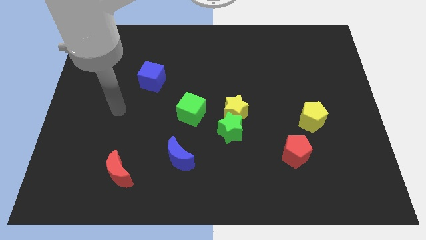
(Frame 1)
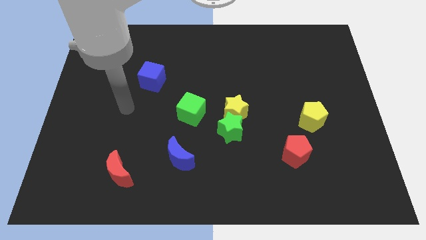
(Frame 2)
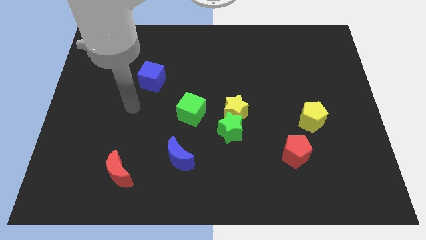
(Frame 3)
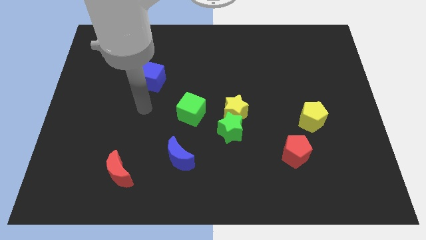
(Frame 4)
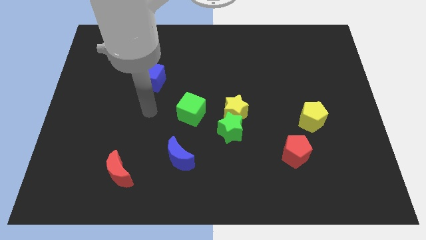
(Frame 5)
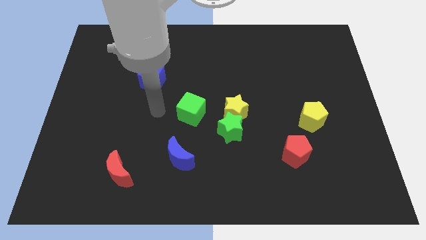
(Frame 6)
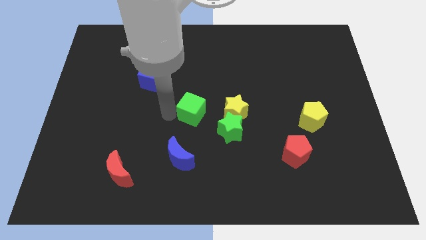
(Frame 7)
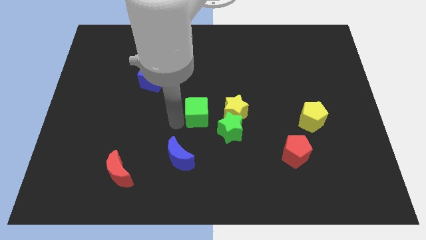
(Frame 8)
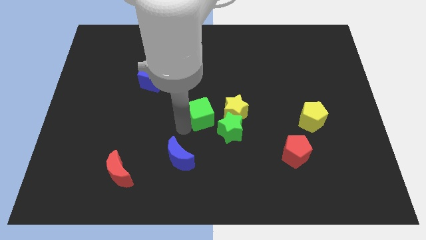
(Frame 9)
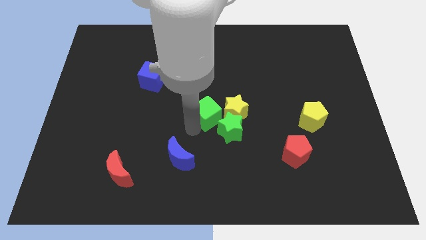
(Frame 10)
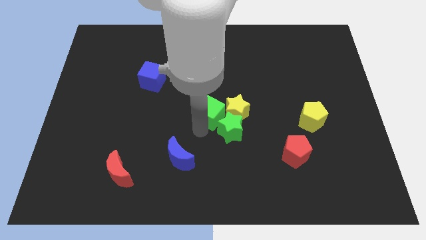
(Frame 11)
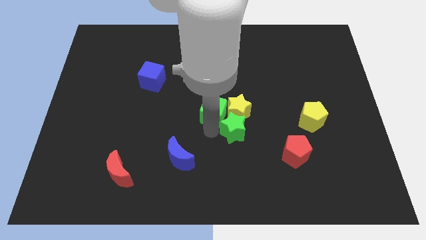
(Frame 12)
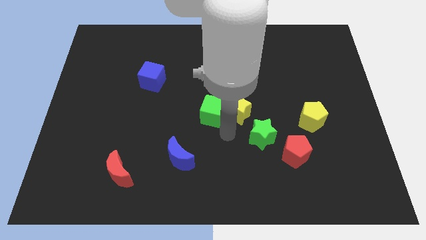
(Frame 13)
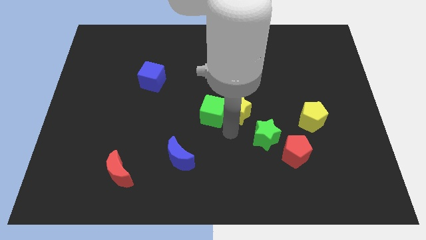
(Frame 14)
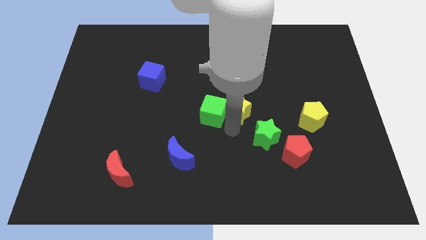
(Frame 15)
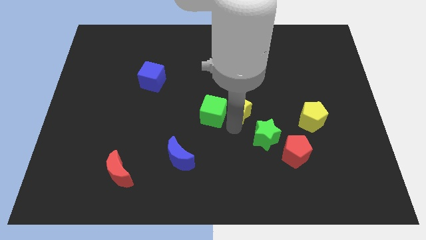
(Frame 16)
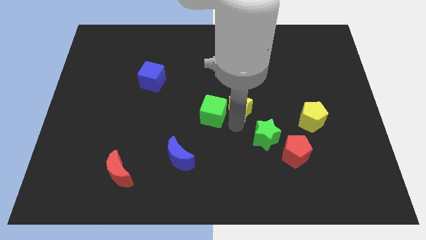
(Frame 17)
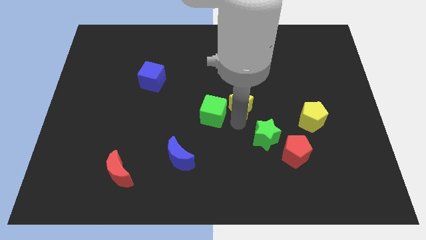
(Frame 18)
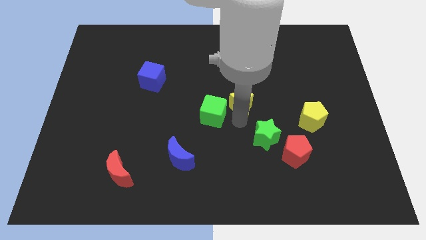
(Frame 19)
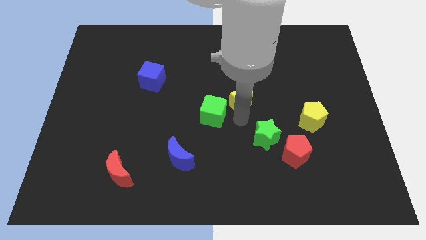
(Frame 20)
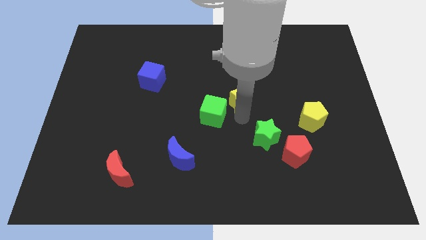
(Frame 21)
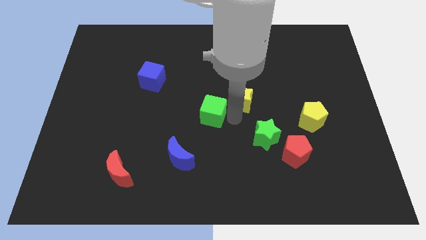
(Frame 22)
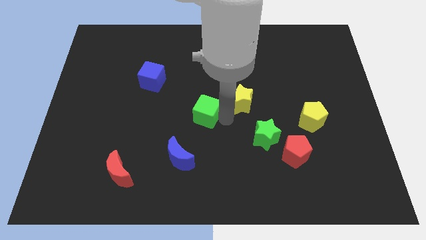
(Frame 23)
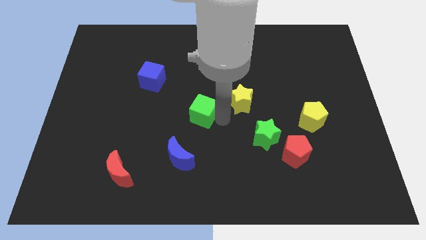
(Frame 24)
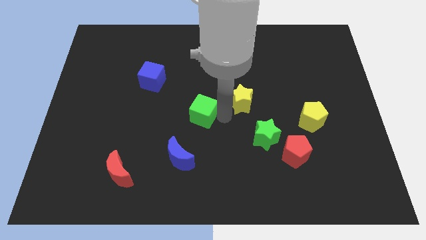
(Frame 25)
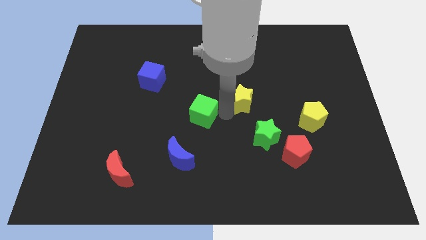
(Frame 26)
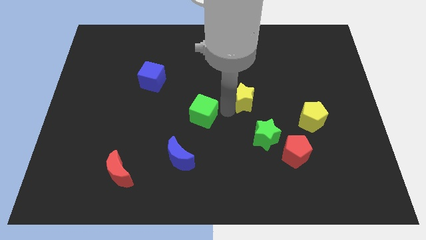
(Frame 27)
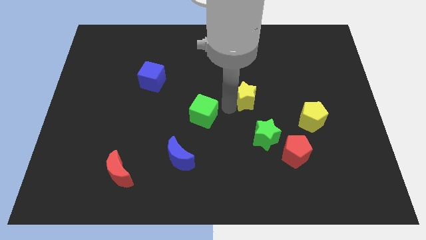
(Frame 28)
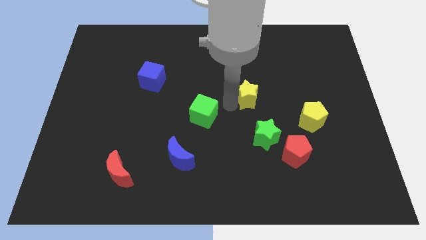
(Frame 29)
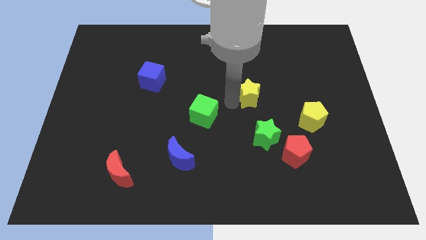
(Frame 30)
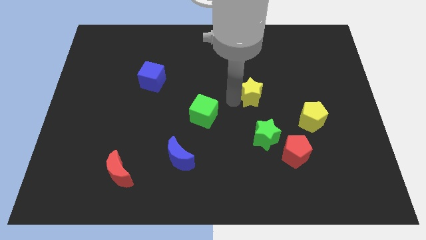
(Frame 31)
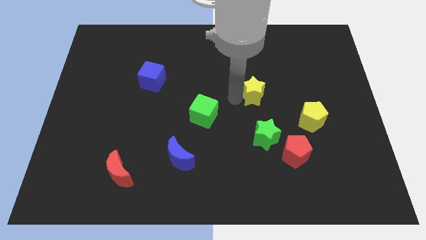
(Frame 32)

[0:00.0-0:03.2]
slide the yellow star a bit upwards and right diagonally

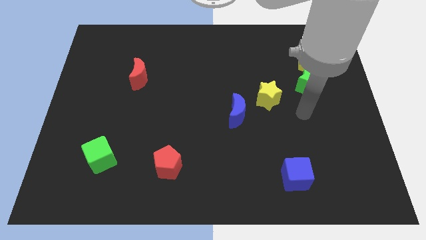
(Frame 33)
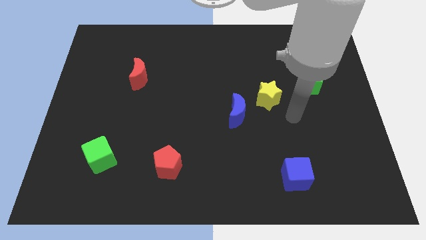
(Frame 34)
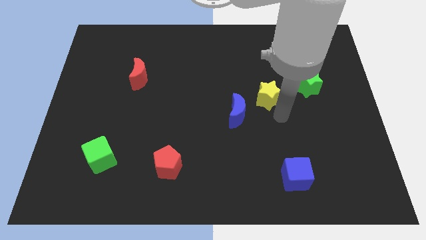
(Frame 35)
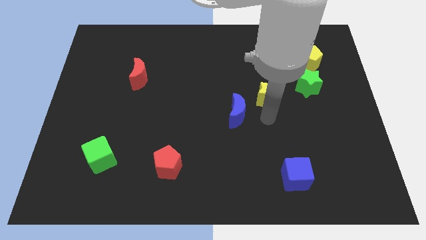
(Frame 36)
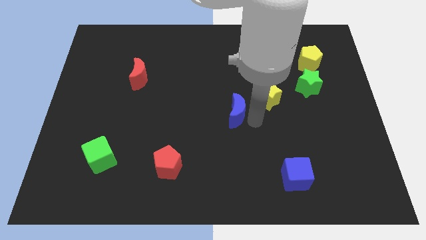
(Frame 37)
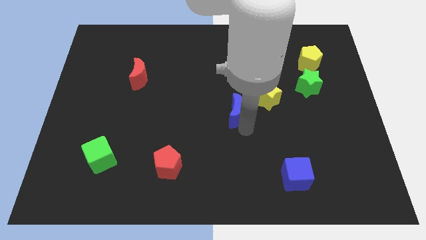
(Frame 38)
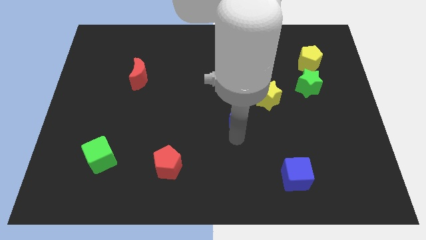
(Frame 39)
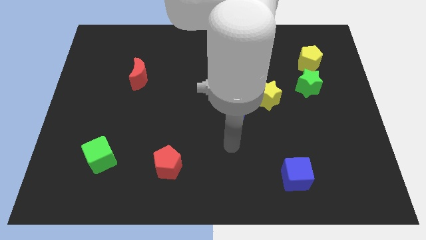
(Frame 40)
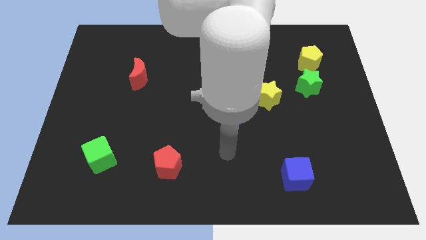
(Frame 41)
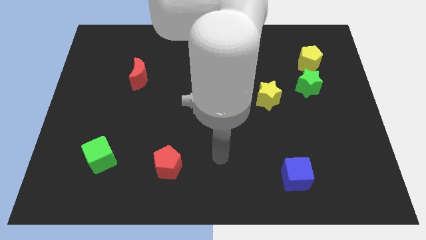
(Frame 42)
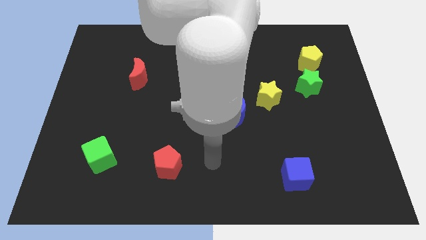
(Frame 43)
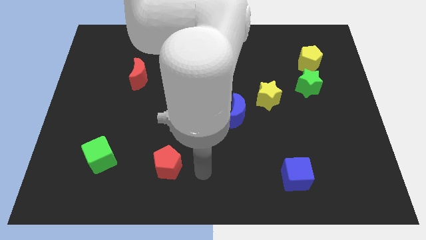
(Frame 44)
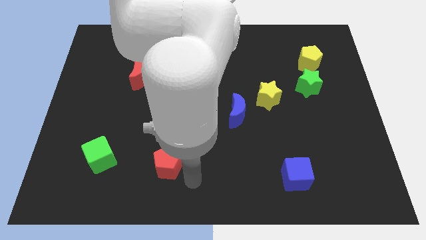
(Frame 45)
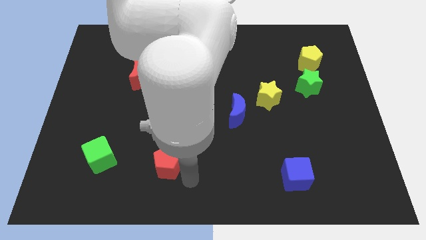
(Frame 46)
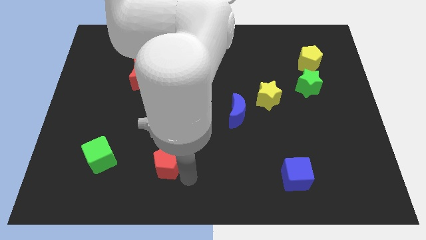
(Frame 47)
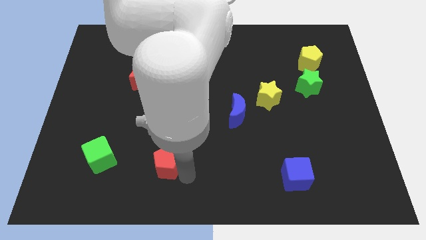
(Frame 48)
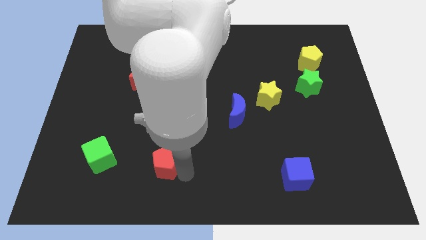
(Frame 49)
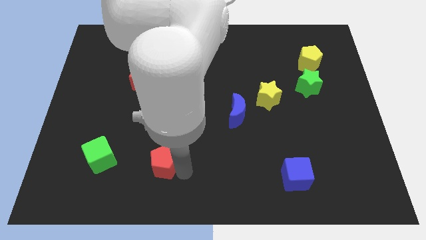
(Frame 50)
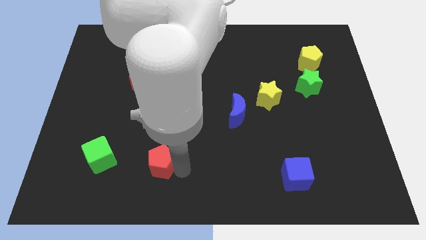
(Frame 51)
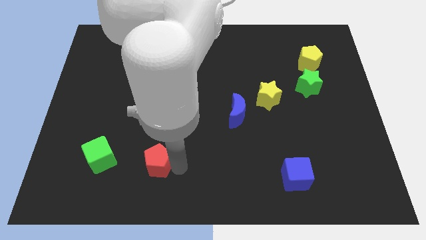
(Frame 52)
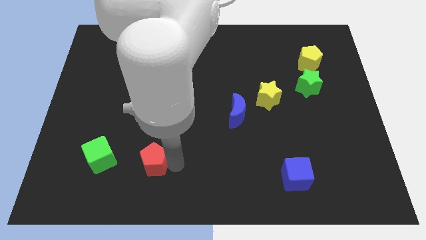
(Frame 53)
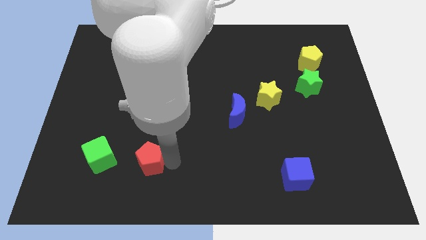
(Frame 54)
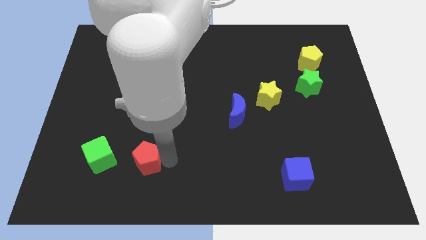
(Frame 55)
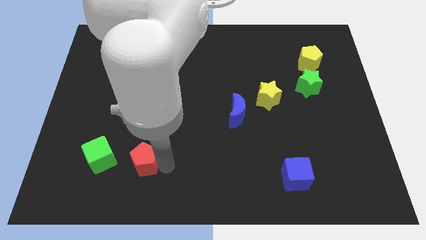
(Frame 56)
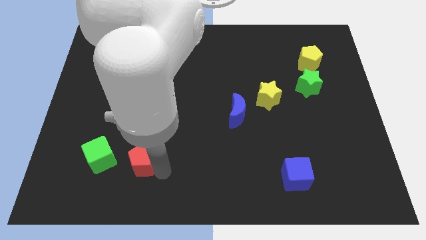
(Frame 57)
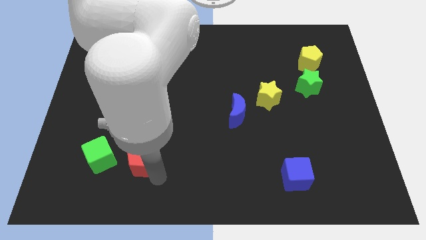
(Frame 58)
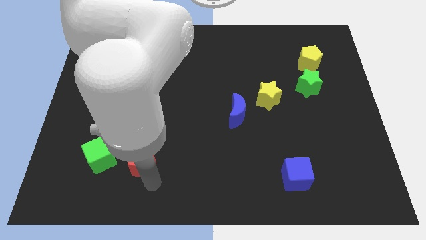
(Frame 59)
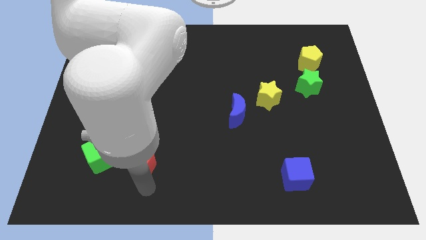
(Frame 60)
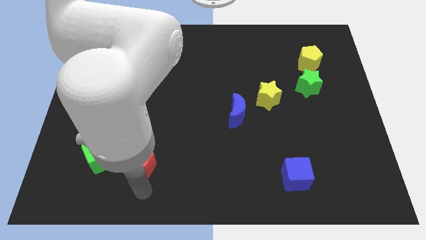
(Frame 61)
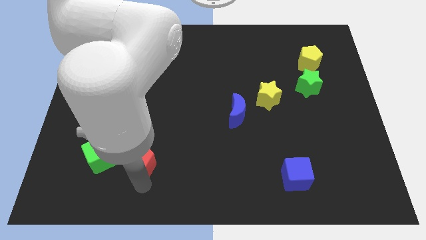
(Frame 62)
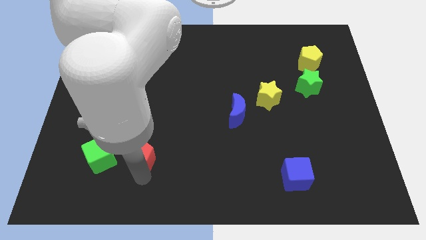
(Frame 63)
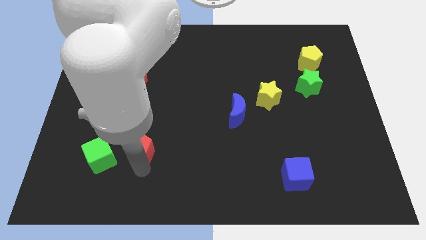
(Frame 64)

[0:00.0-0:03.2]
push the red pentagon somewhat upwards and to the left diagonally

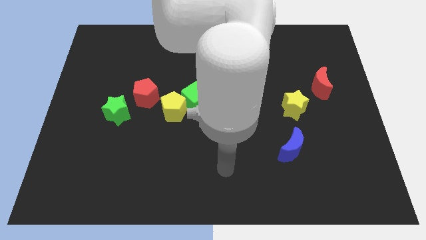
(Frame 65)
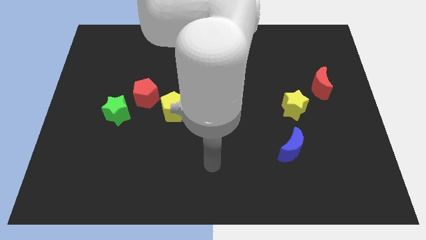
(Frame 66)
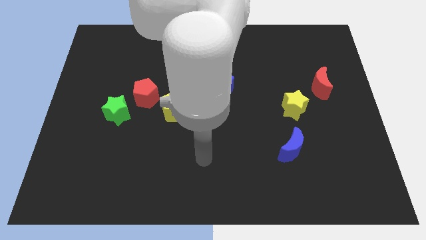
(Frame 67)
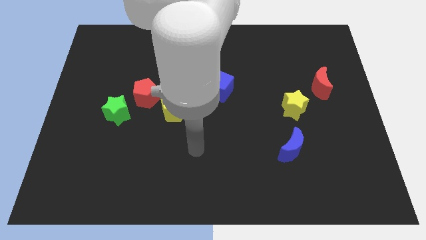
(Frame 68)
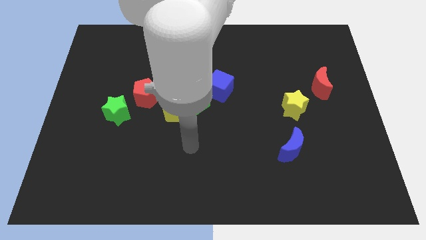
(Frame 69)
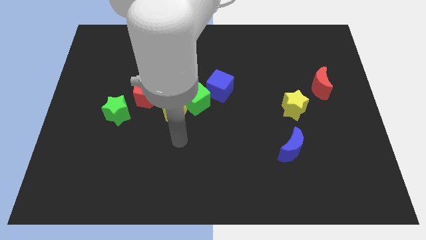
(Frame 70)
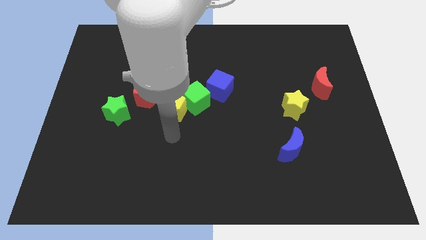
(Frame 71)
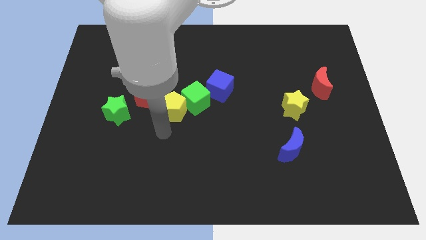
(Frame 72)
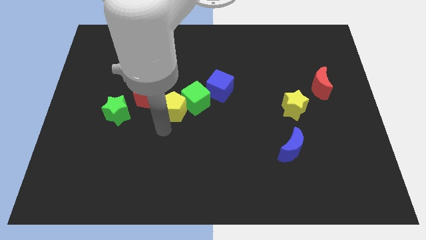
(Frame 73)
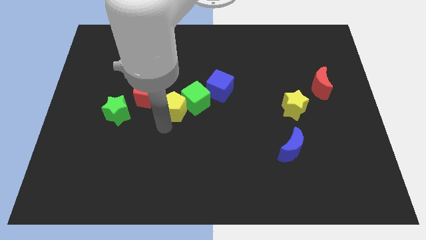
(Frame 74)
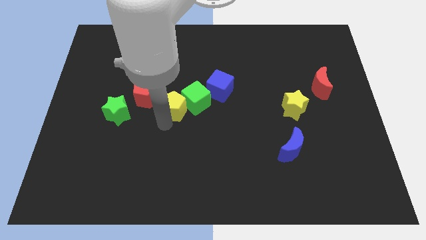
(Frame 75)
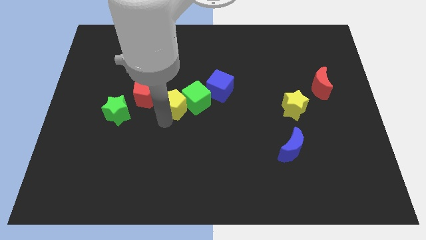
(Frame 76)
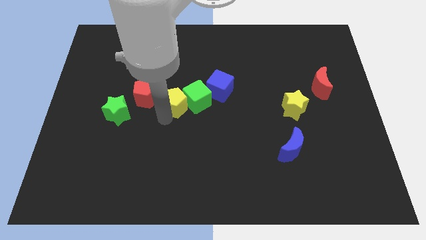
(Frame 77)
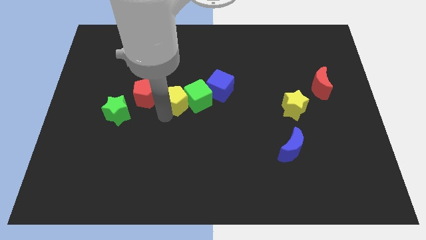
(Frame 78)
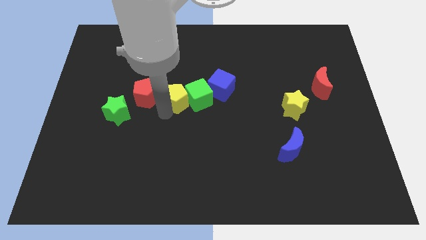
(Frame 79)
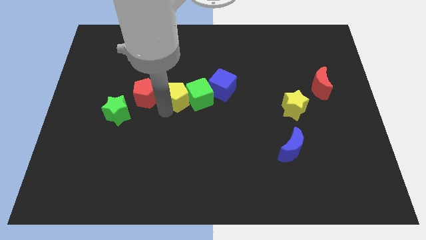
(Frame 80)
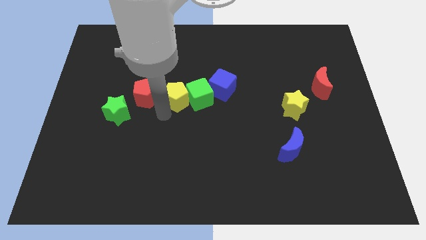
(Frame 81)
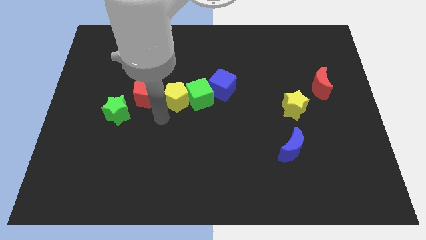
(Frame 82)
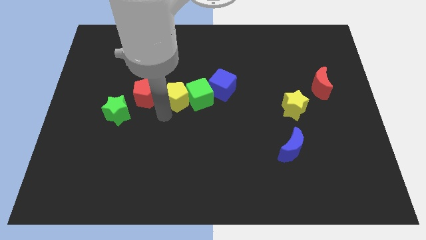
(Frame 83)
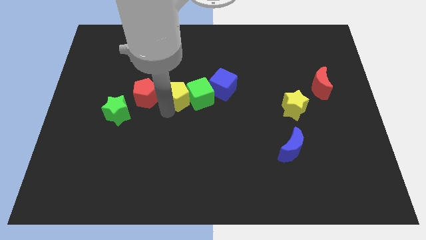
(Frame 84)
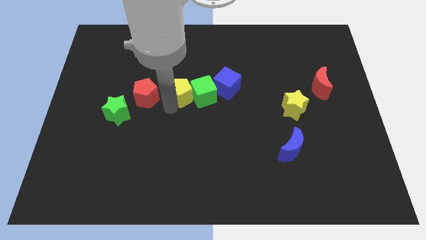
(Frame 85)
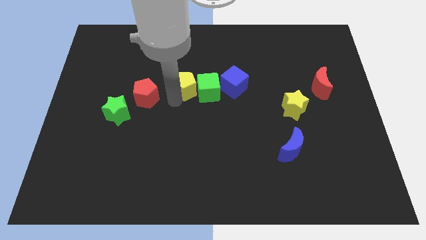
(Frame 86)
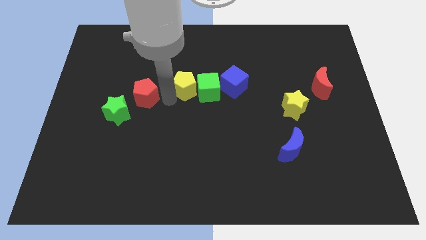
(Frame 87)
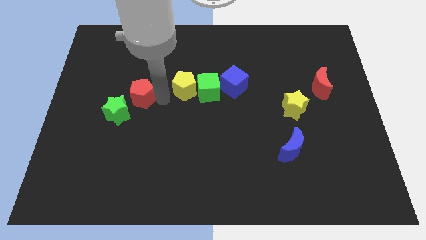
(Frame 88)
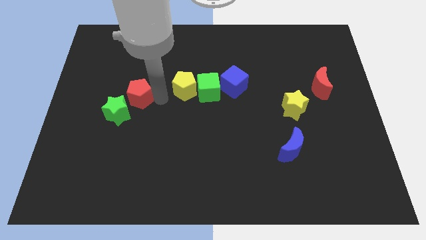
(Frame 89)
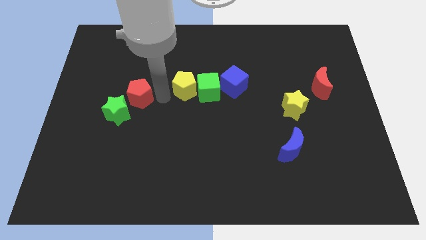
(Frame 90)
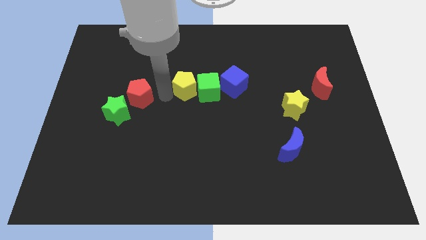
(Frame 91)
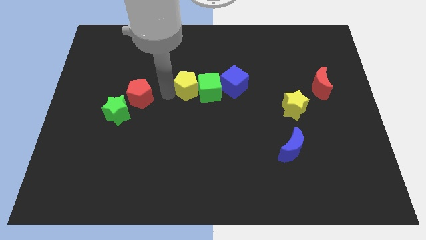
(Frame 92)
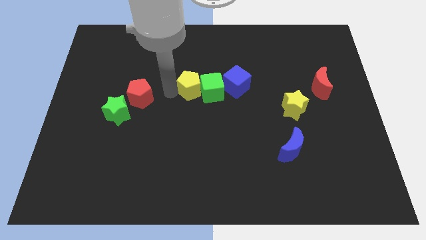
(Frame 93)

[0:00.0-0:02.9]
slightly move the yellow pentagon up and right
